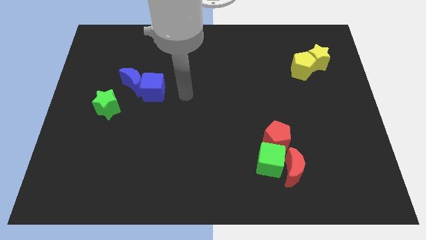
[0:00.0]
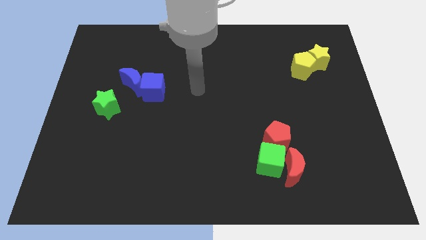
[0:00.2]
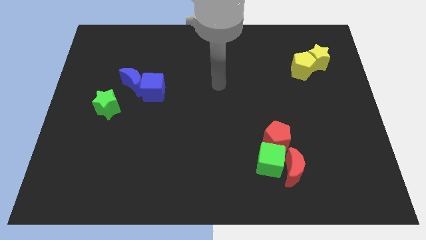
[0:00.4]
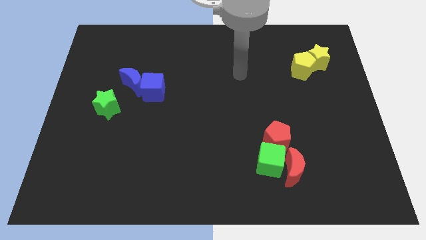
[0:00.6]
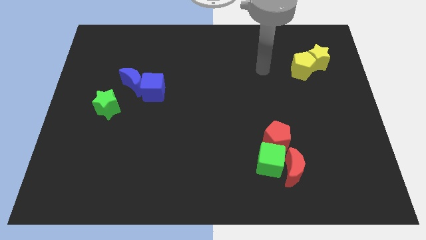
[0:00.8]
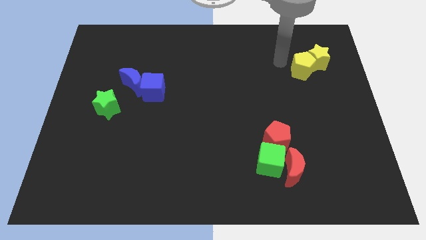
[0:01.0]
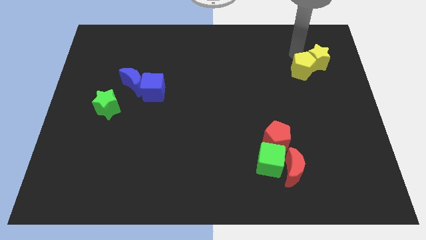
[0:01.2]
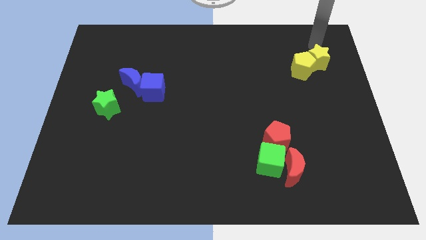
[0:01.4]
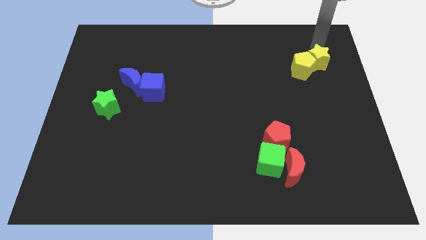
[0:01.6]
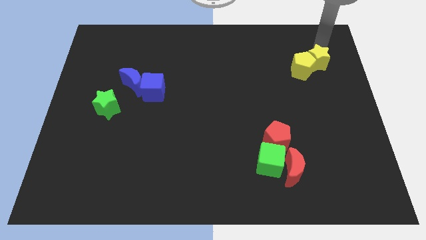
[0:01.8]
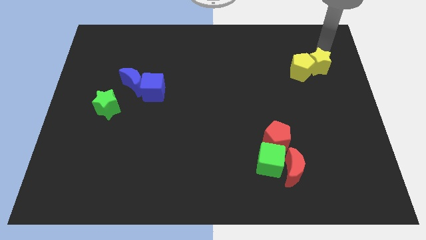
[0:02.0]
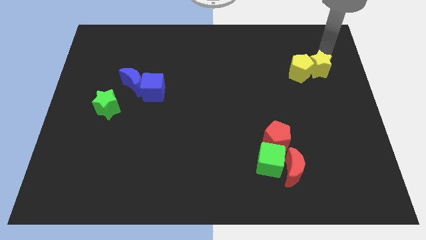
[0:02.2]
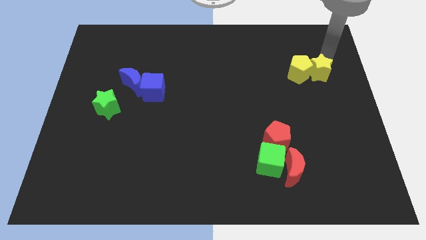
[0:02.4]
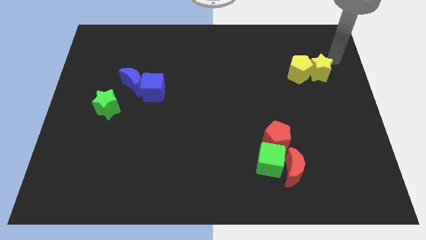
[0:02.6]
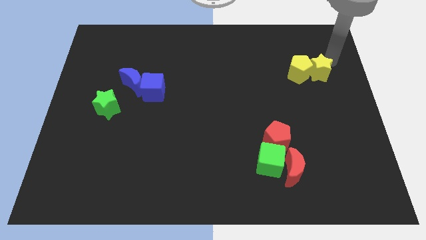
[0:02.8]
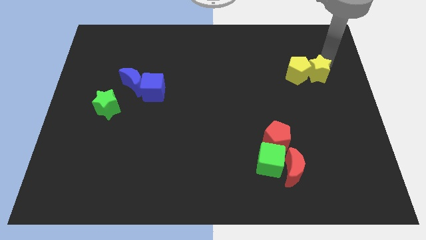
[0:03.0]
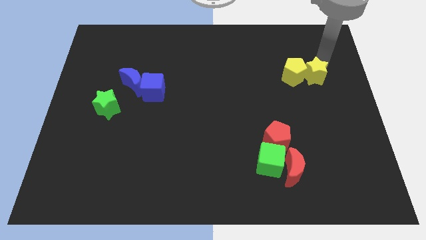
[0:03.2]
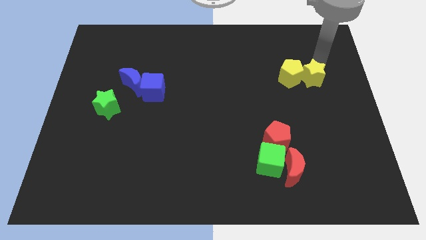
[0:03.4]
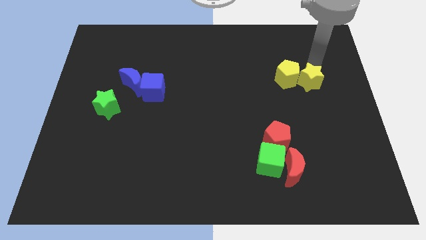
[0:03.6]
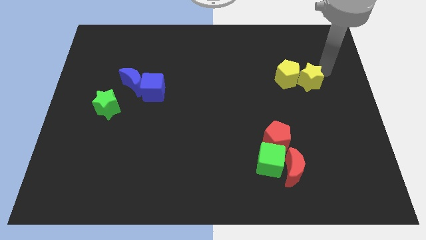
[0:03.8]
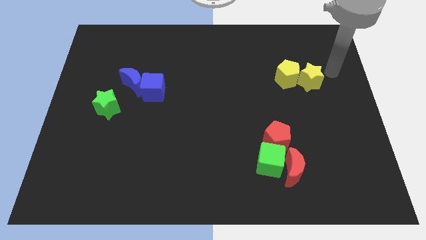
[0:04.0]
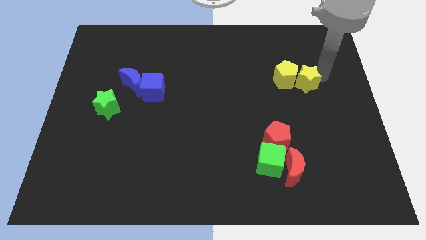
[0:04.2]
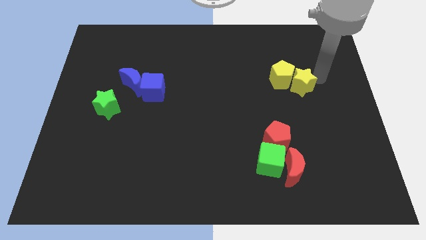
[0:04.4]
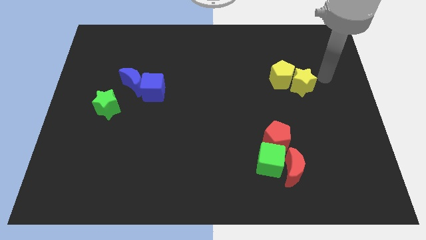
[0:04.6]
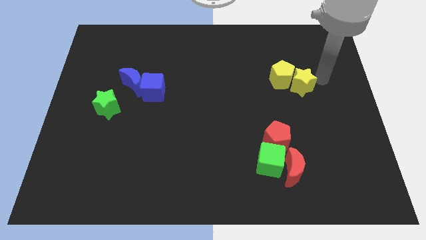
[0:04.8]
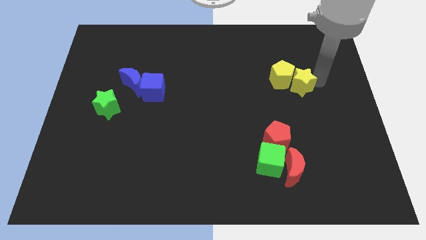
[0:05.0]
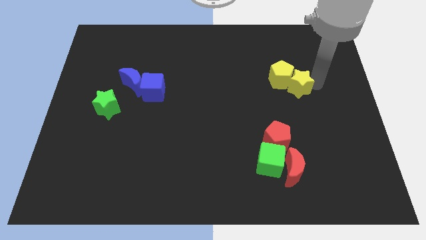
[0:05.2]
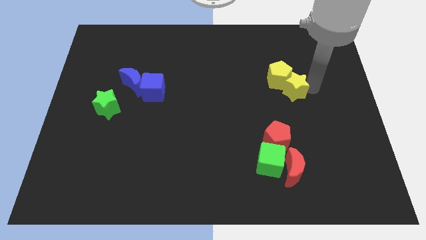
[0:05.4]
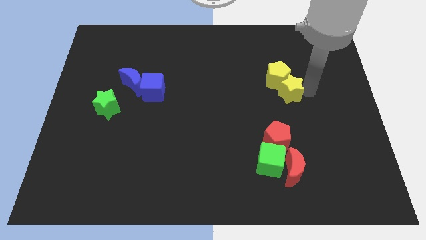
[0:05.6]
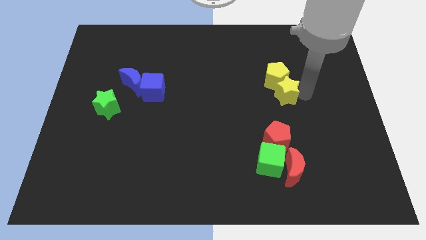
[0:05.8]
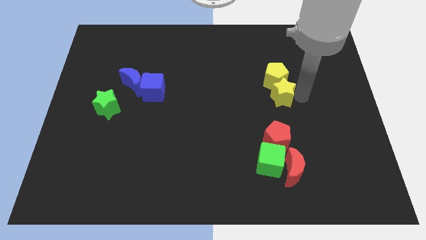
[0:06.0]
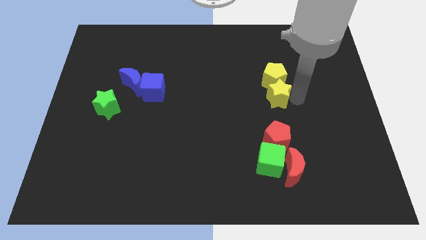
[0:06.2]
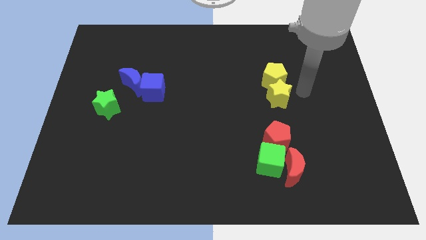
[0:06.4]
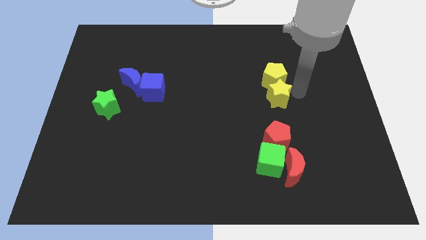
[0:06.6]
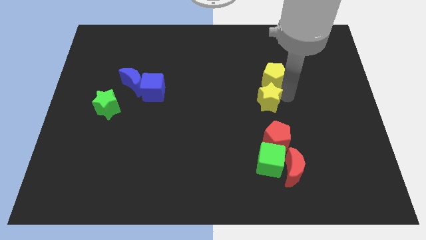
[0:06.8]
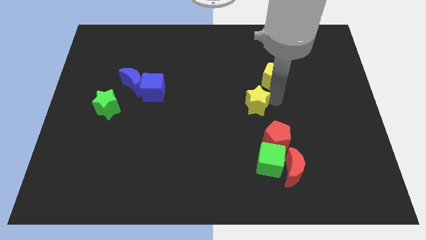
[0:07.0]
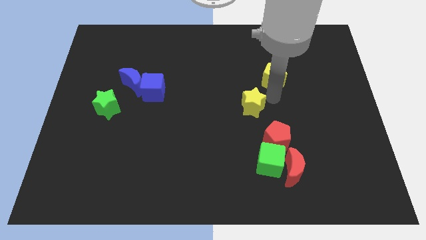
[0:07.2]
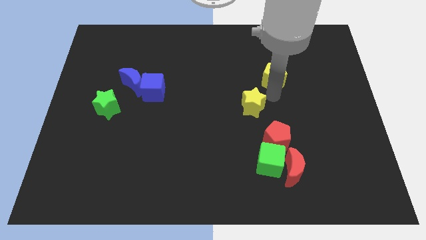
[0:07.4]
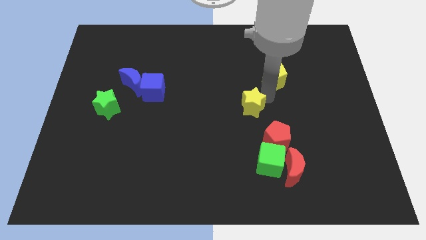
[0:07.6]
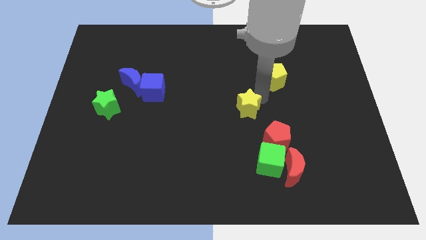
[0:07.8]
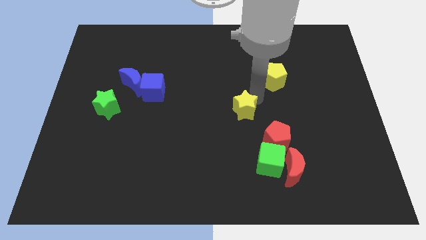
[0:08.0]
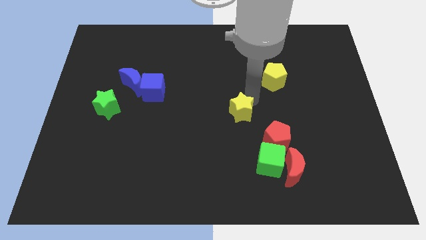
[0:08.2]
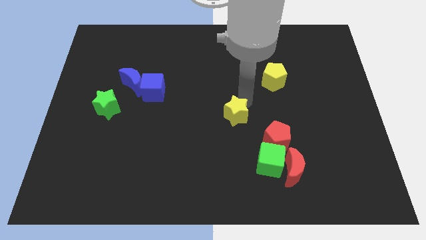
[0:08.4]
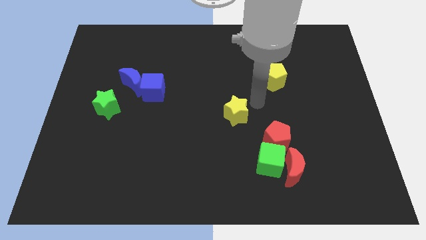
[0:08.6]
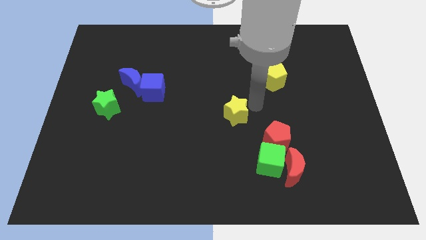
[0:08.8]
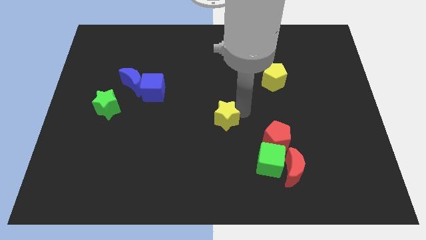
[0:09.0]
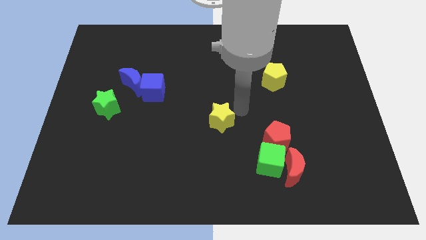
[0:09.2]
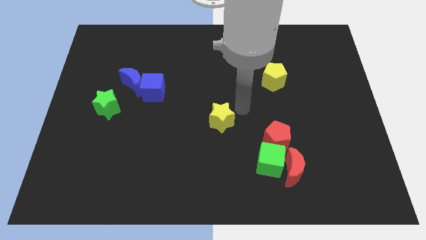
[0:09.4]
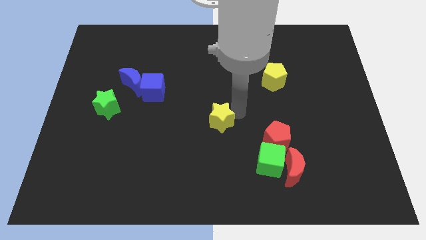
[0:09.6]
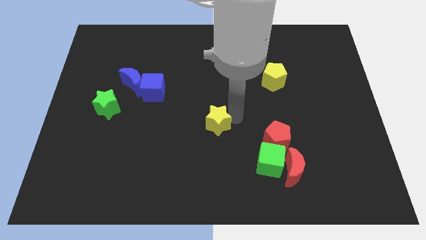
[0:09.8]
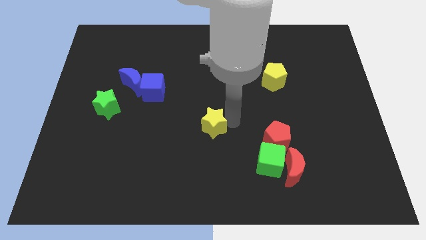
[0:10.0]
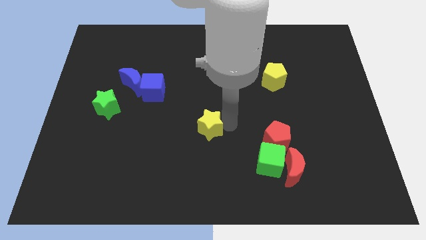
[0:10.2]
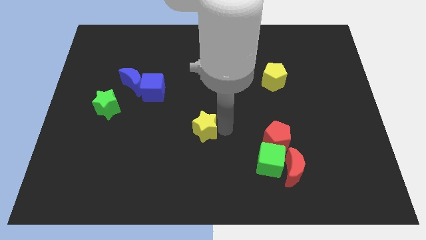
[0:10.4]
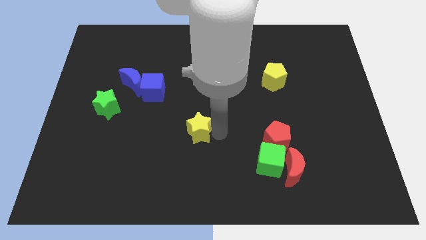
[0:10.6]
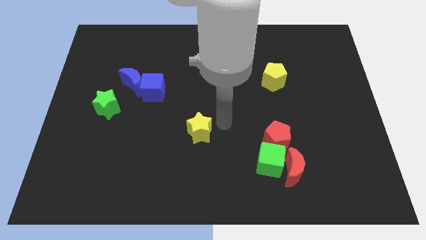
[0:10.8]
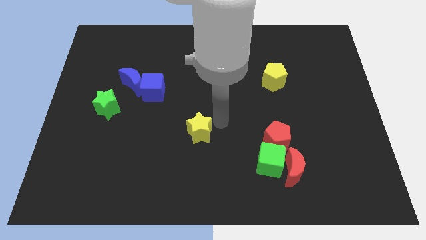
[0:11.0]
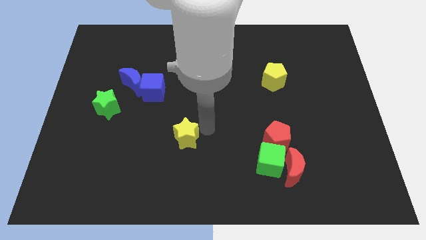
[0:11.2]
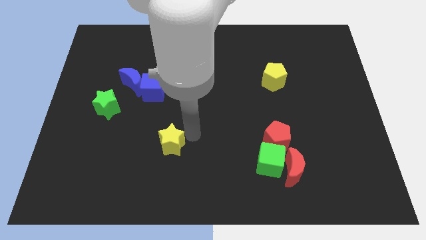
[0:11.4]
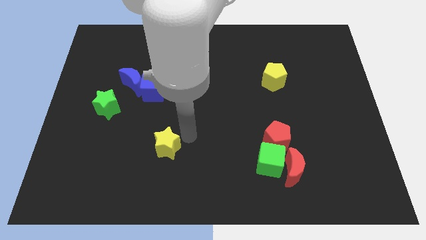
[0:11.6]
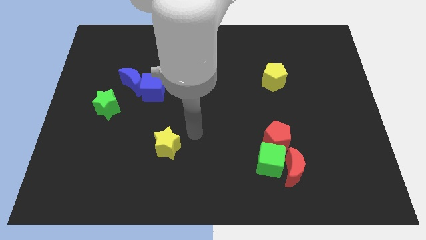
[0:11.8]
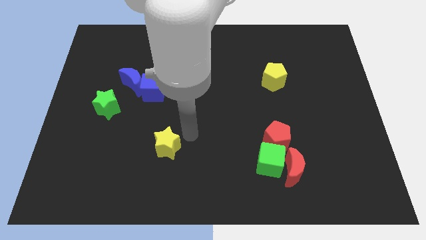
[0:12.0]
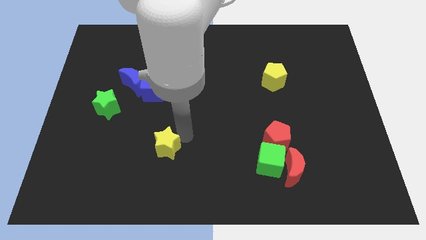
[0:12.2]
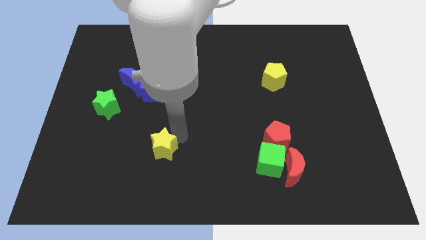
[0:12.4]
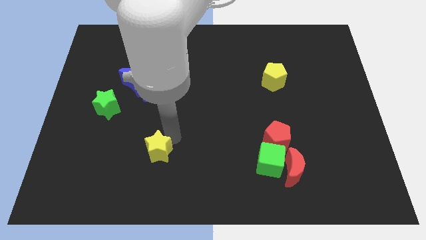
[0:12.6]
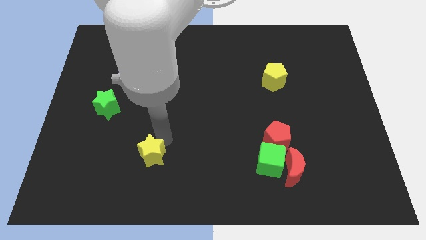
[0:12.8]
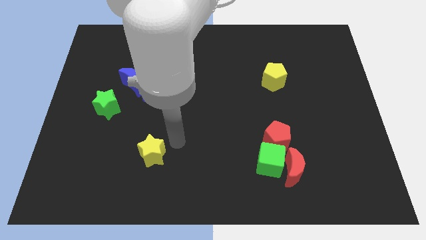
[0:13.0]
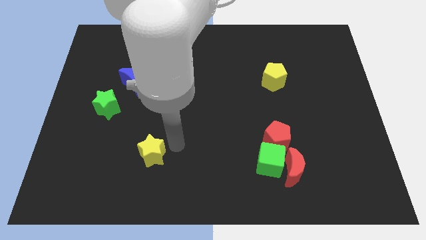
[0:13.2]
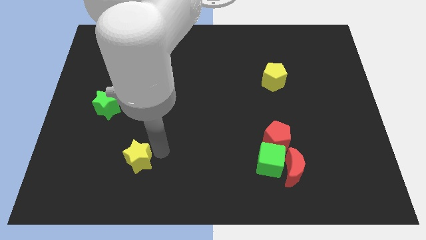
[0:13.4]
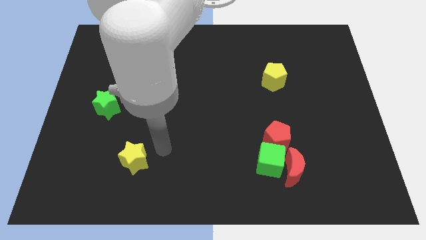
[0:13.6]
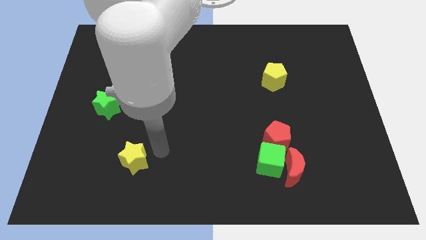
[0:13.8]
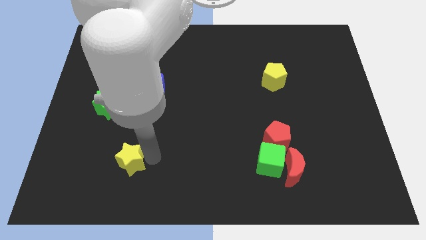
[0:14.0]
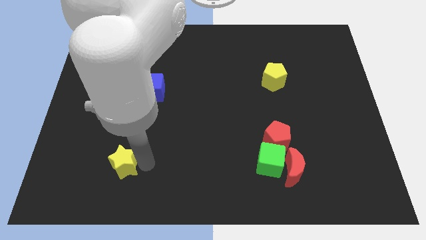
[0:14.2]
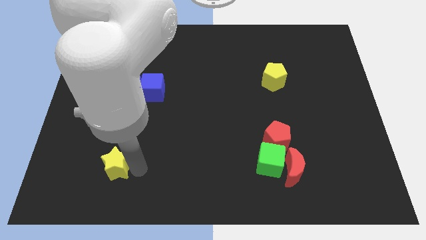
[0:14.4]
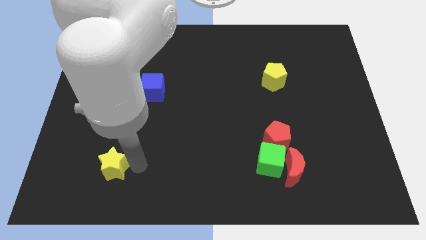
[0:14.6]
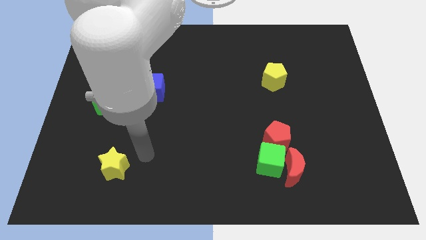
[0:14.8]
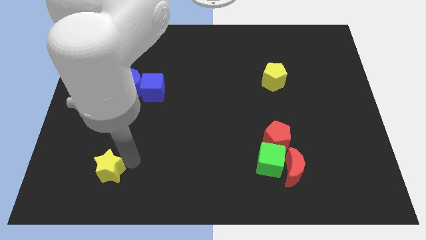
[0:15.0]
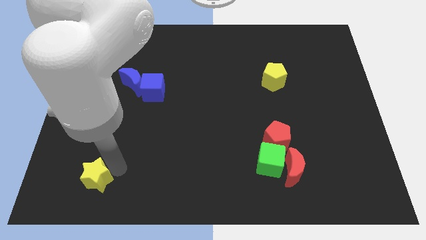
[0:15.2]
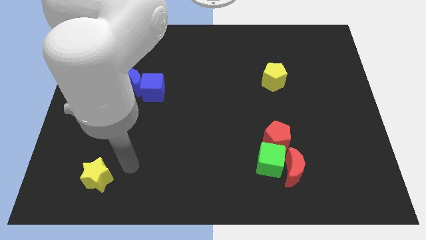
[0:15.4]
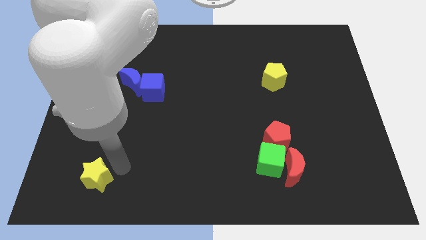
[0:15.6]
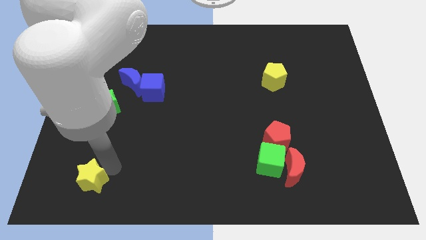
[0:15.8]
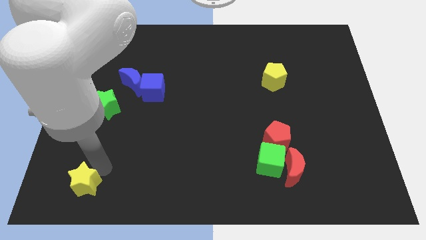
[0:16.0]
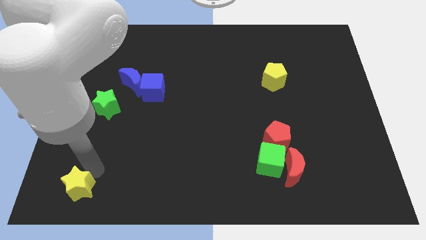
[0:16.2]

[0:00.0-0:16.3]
slide the yellow star to the bottom left
